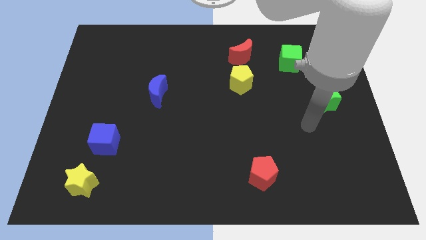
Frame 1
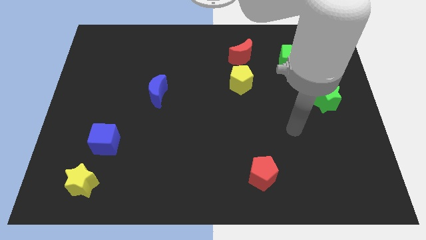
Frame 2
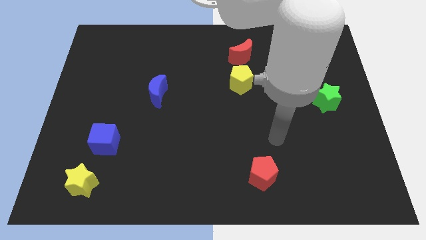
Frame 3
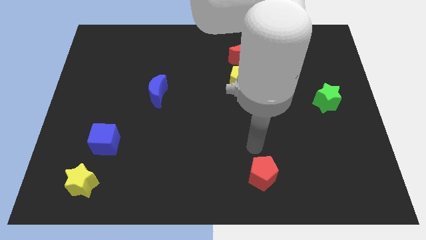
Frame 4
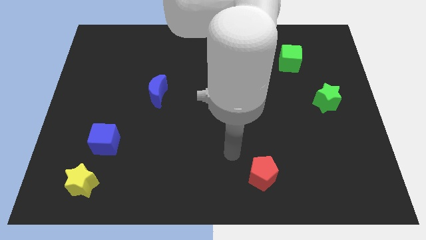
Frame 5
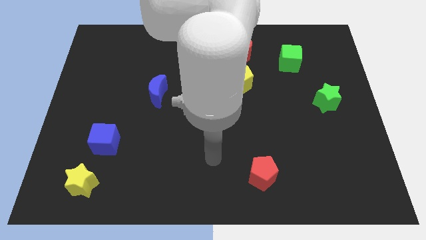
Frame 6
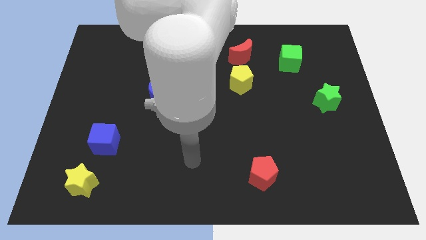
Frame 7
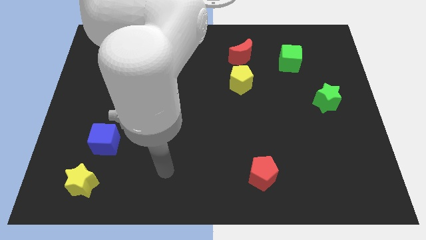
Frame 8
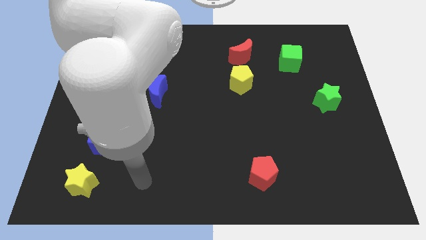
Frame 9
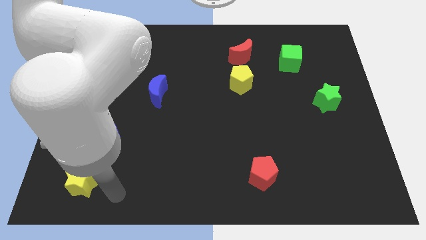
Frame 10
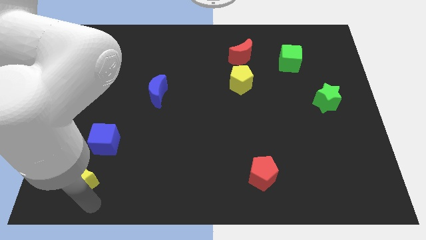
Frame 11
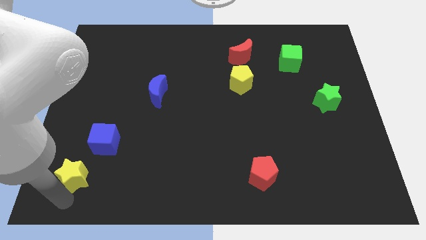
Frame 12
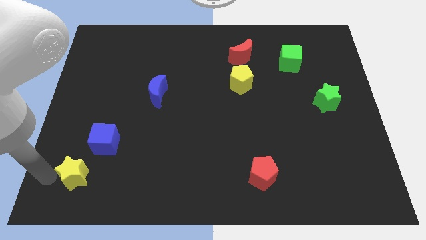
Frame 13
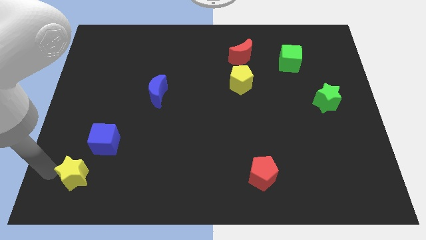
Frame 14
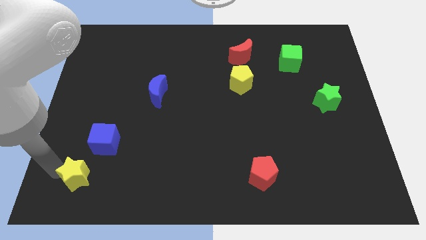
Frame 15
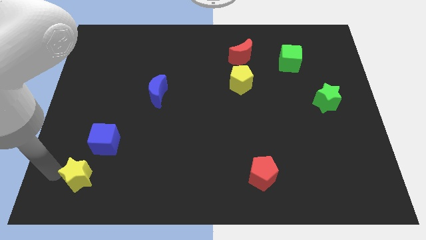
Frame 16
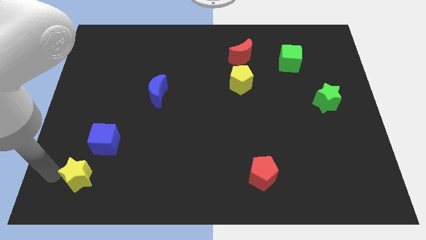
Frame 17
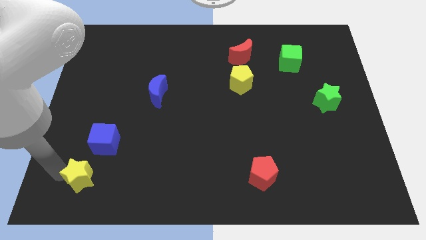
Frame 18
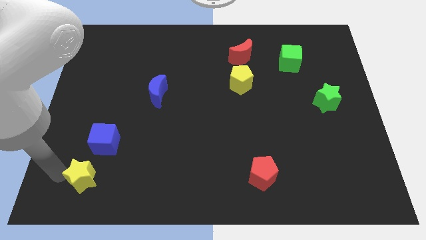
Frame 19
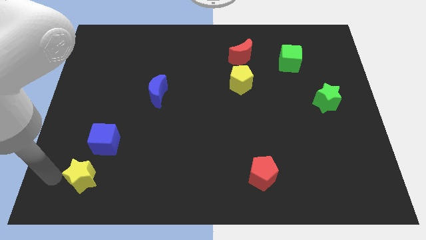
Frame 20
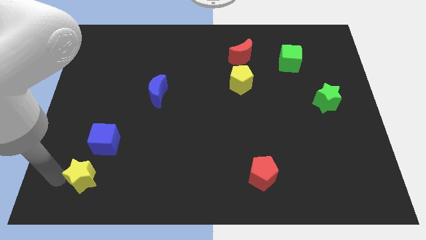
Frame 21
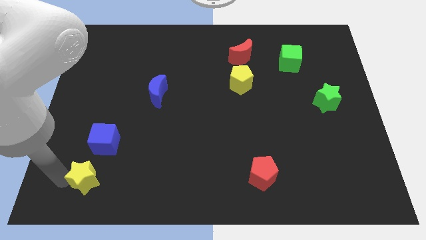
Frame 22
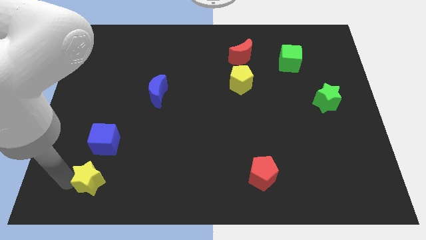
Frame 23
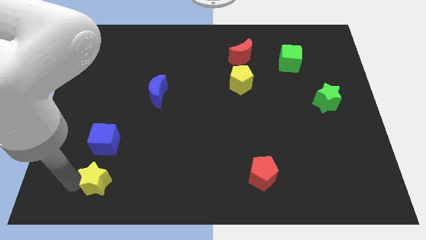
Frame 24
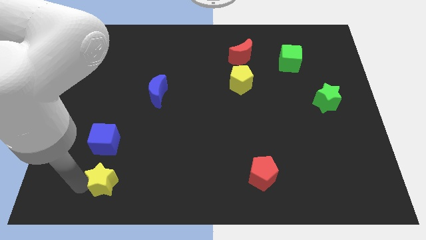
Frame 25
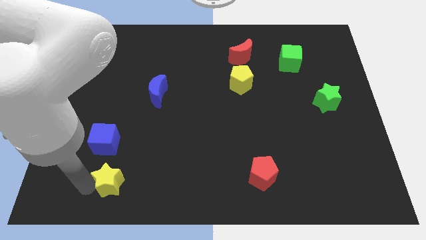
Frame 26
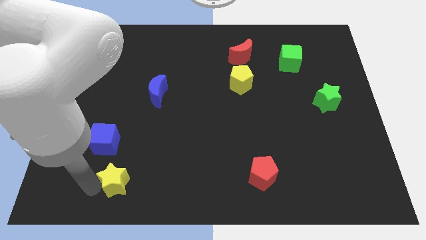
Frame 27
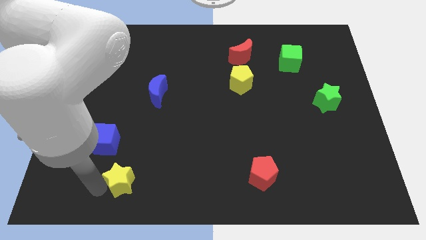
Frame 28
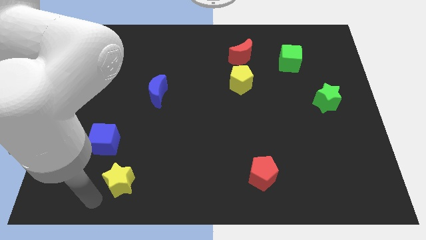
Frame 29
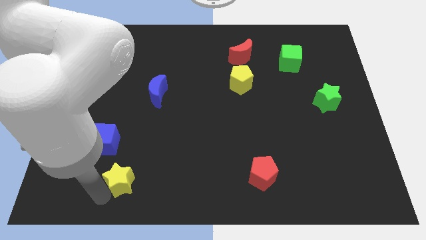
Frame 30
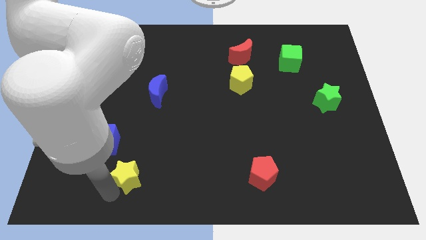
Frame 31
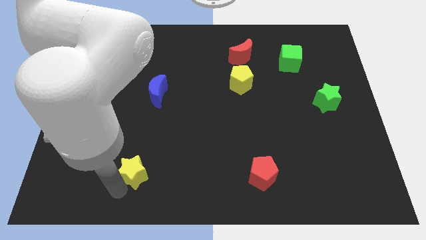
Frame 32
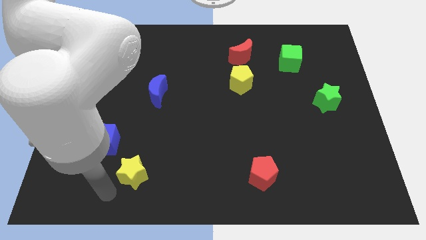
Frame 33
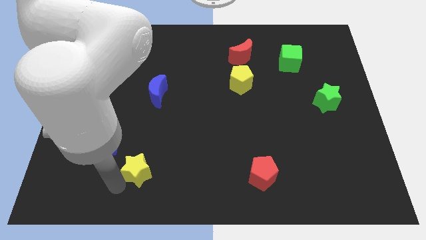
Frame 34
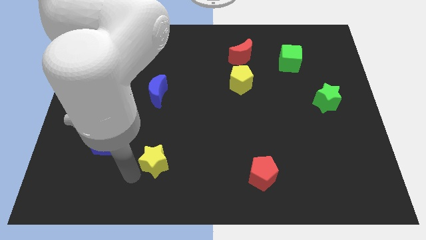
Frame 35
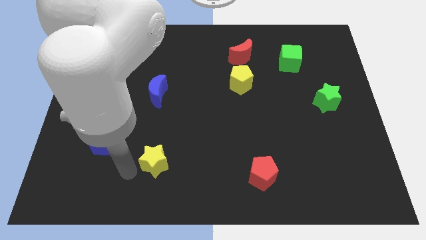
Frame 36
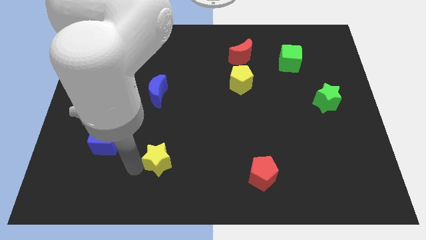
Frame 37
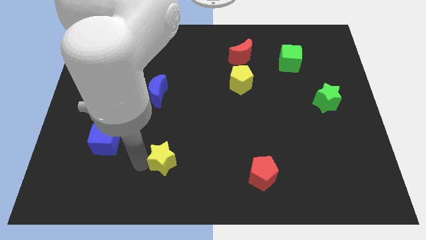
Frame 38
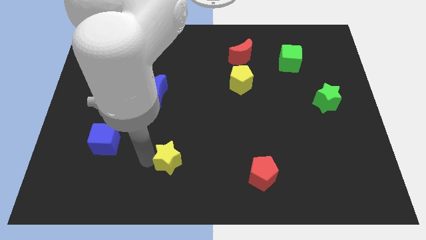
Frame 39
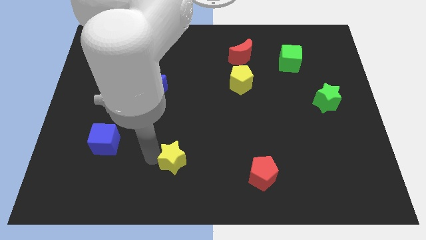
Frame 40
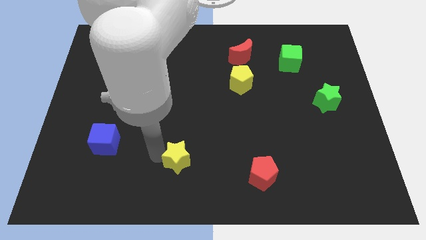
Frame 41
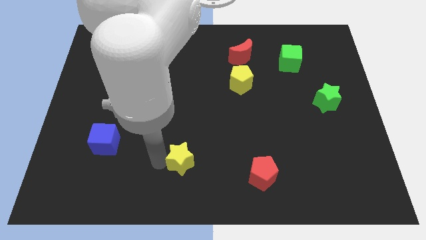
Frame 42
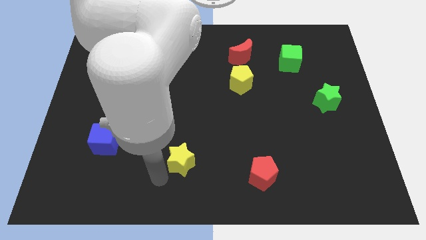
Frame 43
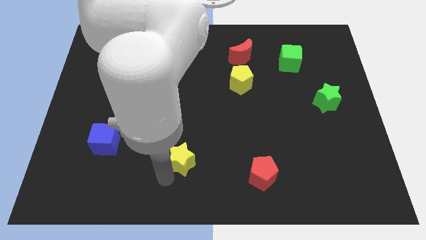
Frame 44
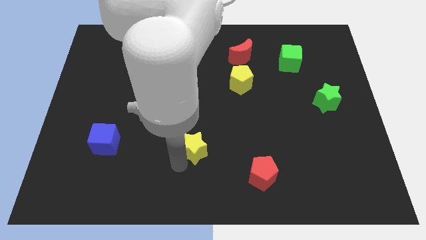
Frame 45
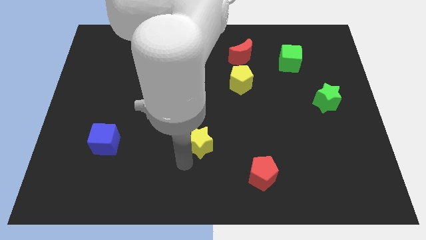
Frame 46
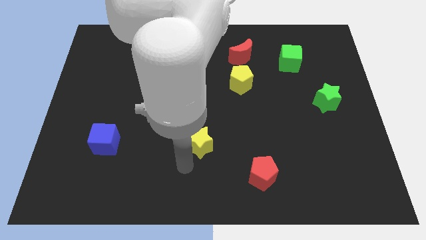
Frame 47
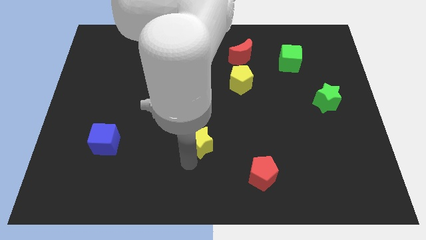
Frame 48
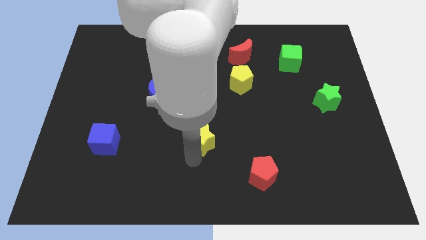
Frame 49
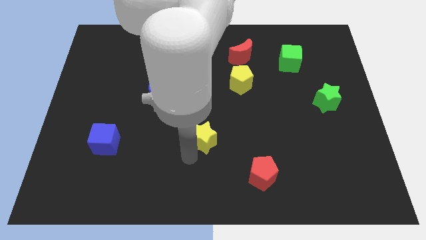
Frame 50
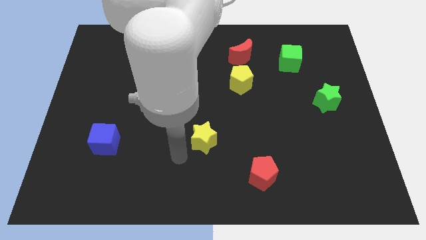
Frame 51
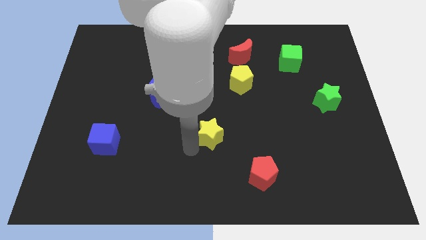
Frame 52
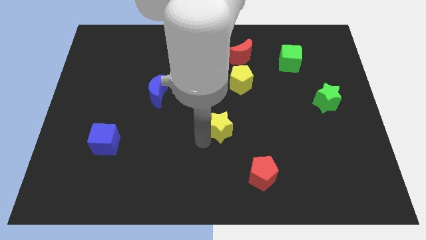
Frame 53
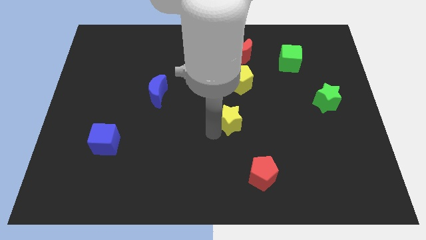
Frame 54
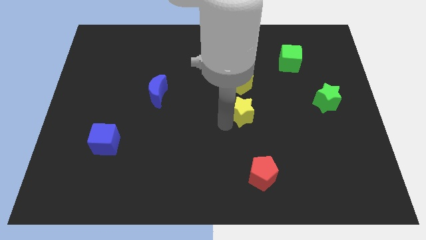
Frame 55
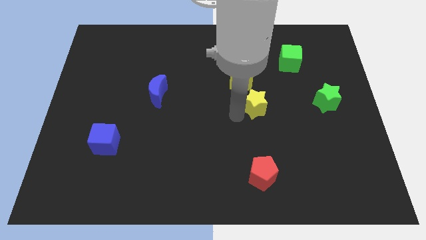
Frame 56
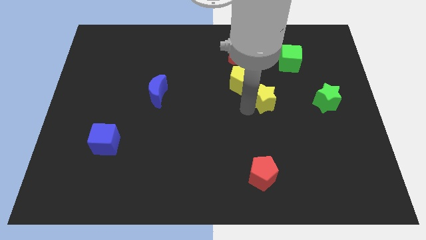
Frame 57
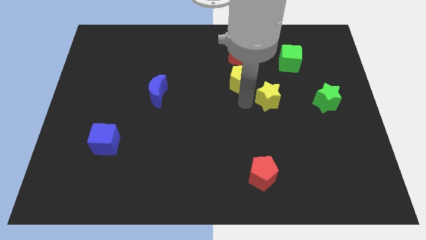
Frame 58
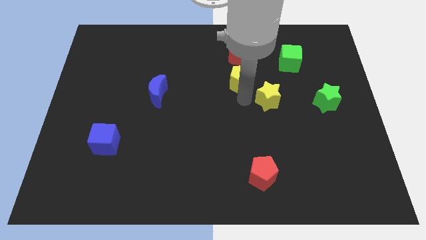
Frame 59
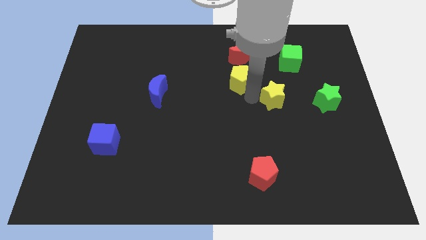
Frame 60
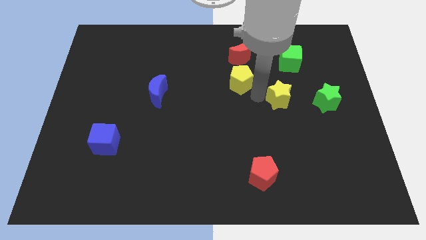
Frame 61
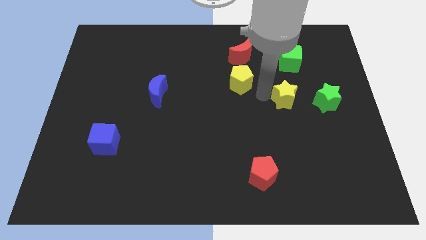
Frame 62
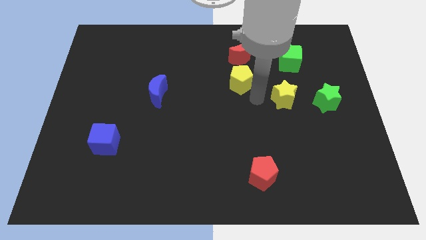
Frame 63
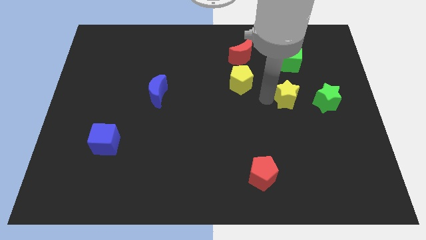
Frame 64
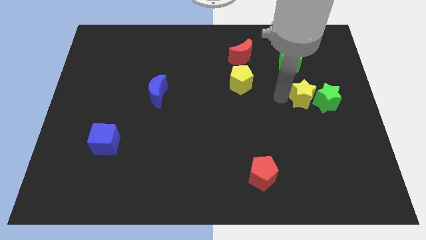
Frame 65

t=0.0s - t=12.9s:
slide the yellow star to the green star
